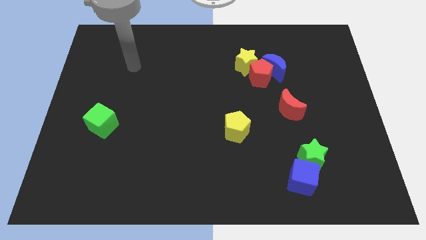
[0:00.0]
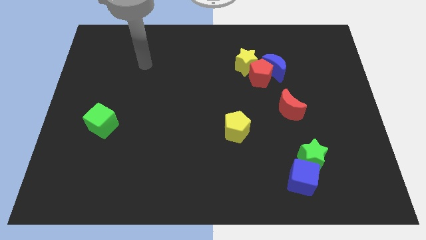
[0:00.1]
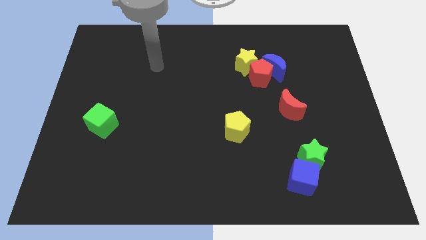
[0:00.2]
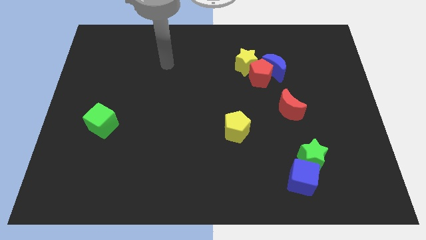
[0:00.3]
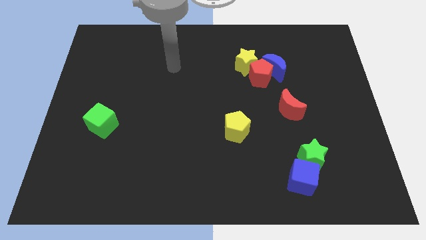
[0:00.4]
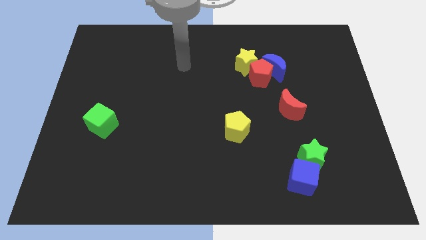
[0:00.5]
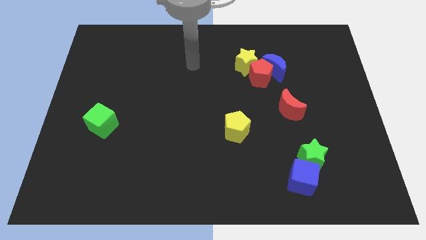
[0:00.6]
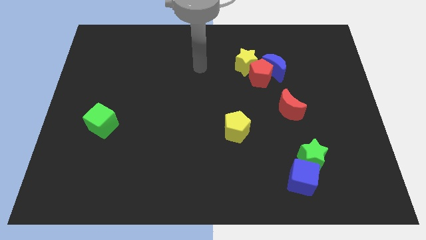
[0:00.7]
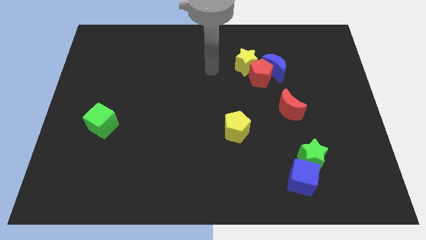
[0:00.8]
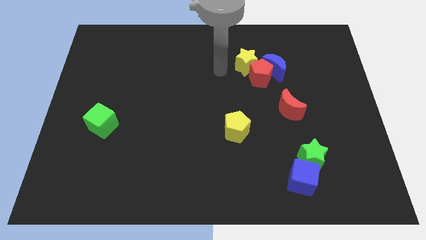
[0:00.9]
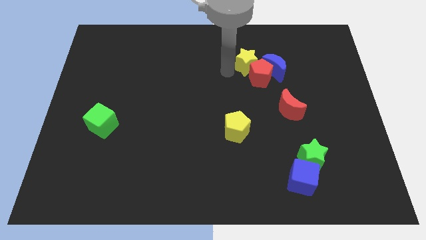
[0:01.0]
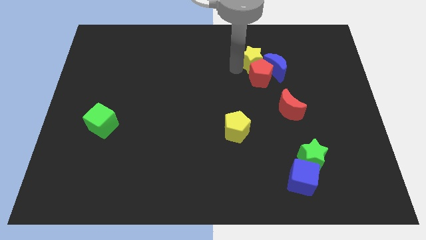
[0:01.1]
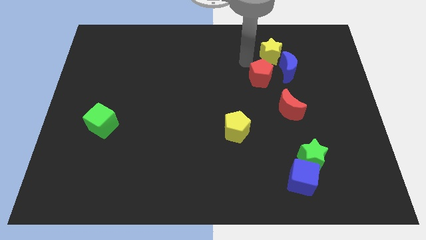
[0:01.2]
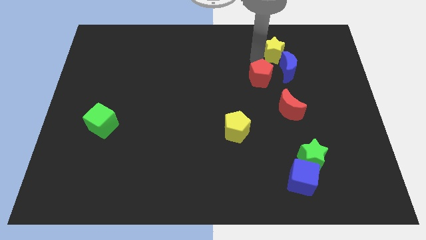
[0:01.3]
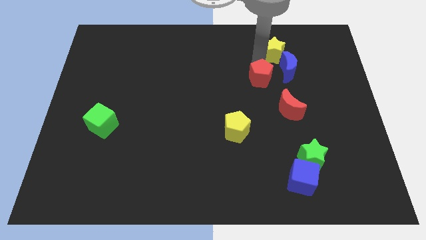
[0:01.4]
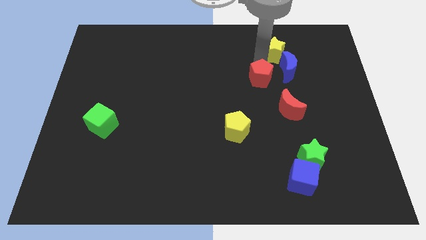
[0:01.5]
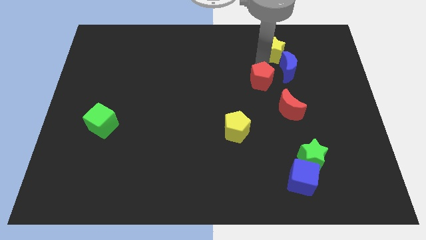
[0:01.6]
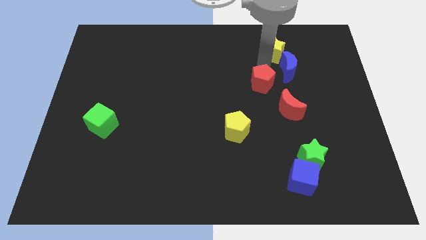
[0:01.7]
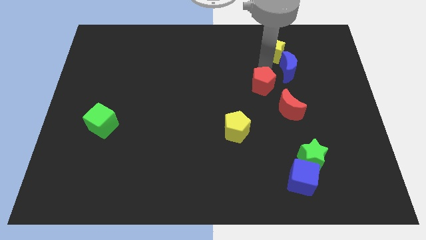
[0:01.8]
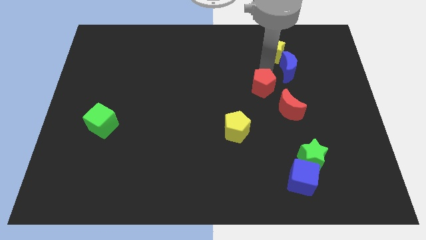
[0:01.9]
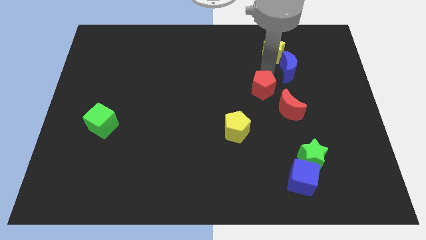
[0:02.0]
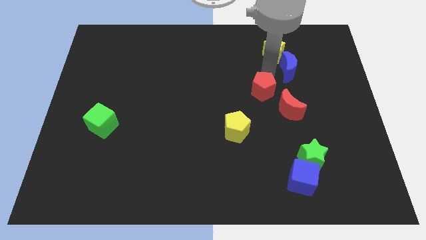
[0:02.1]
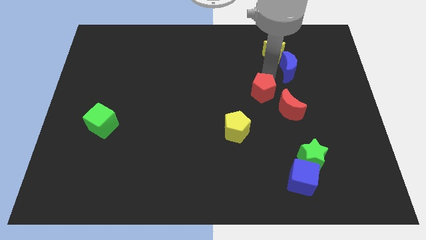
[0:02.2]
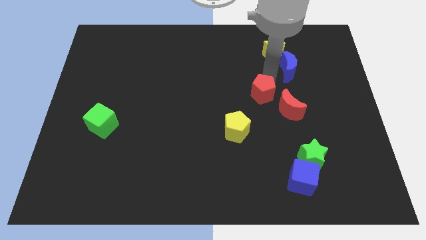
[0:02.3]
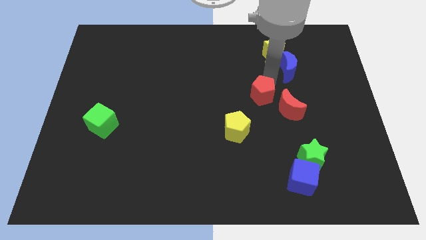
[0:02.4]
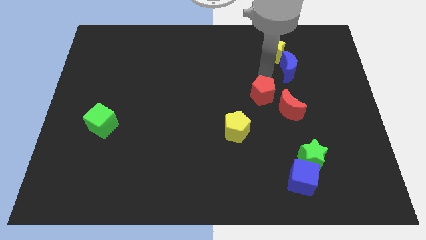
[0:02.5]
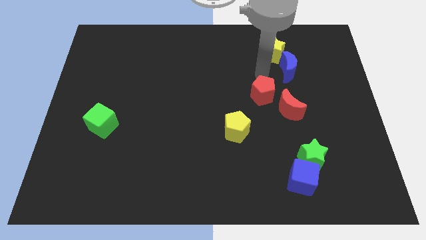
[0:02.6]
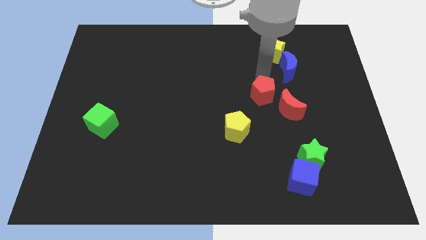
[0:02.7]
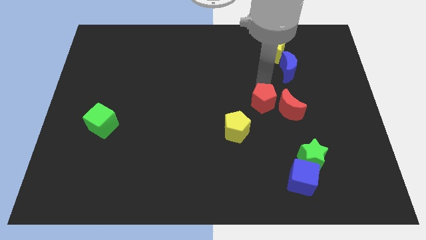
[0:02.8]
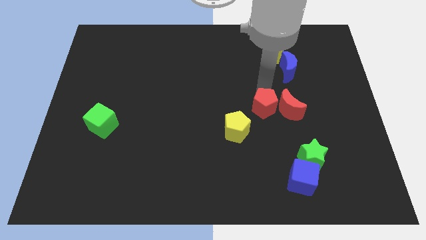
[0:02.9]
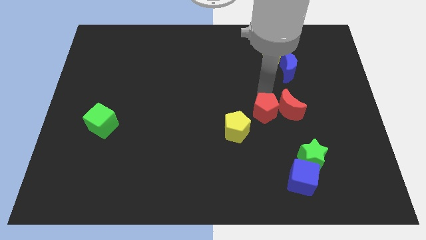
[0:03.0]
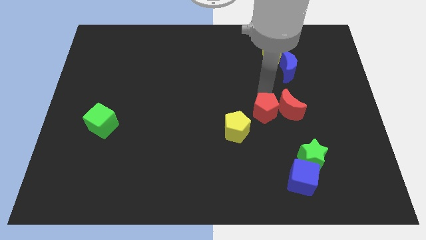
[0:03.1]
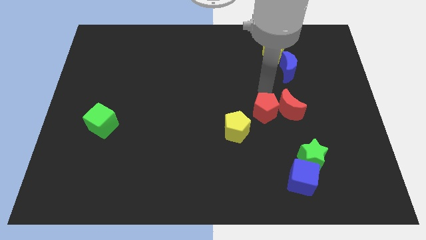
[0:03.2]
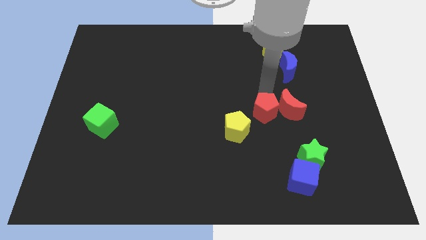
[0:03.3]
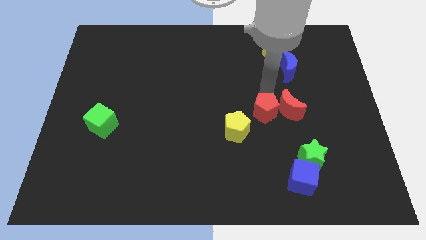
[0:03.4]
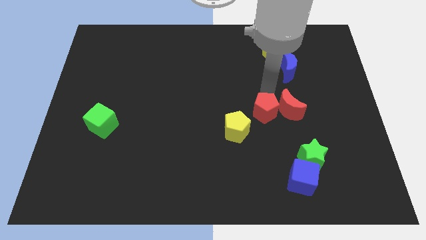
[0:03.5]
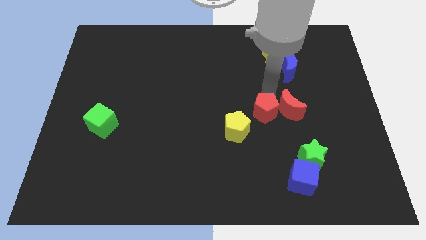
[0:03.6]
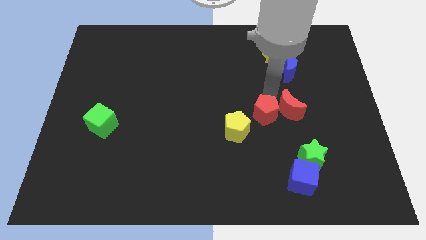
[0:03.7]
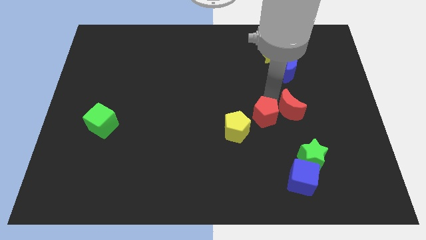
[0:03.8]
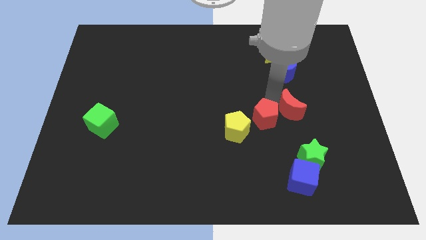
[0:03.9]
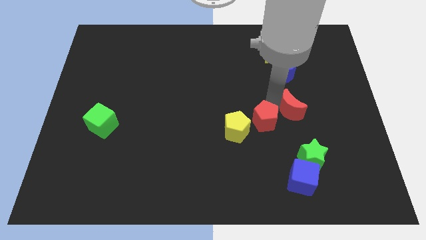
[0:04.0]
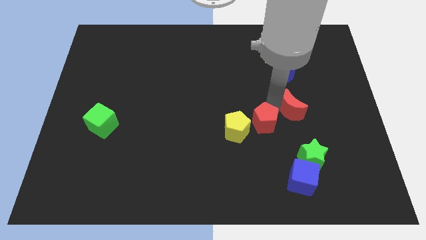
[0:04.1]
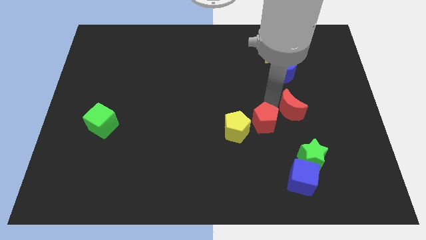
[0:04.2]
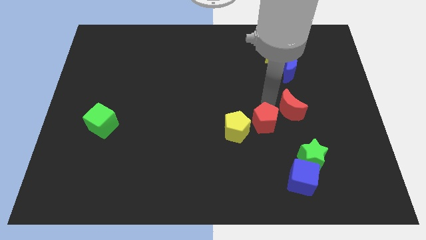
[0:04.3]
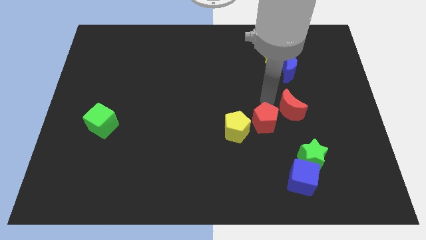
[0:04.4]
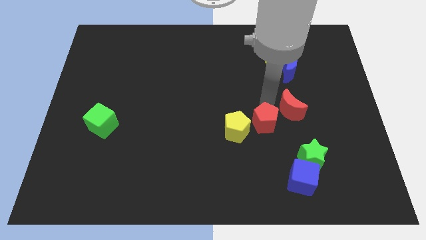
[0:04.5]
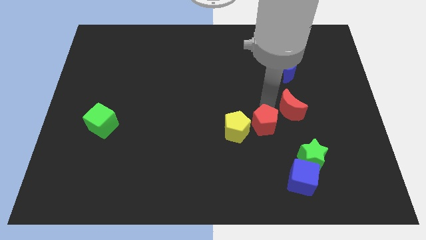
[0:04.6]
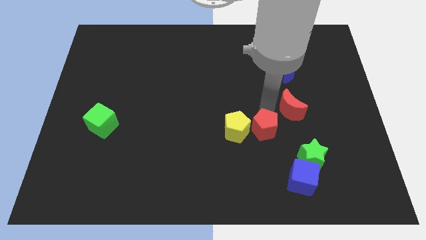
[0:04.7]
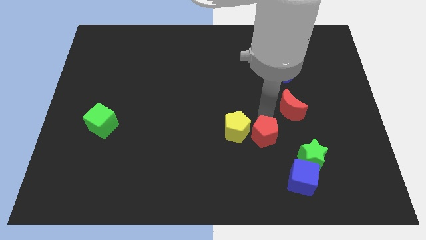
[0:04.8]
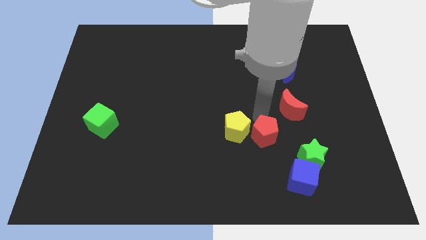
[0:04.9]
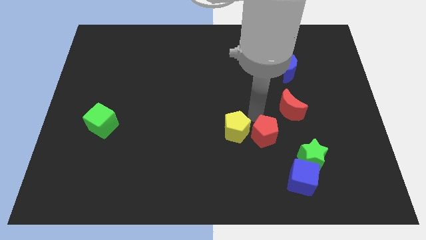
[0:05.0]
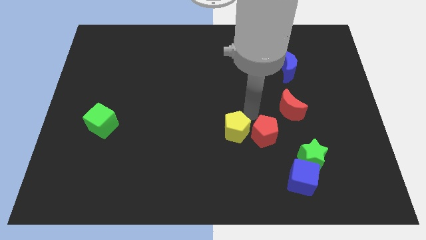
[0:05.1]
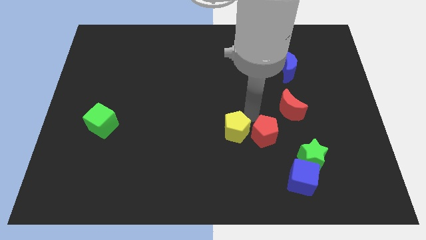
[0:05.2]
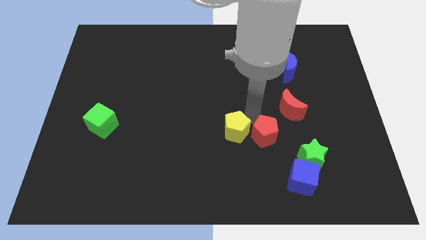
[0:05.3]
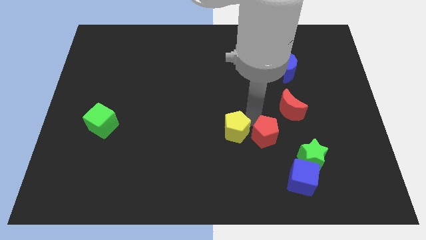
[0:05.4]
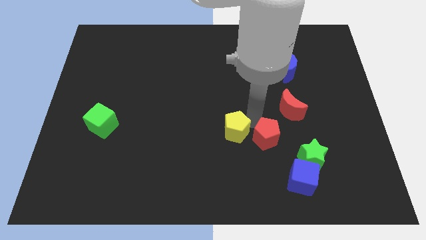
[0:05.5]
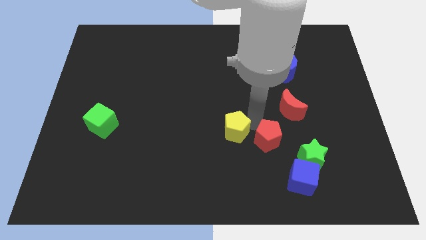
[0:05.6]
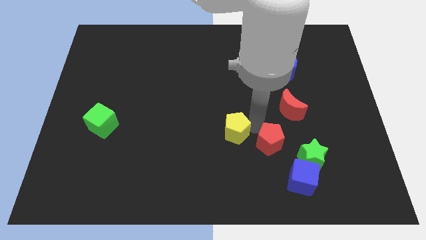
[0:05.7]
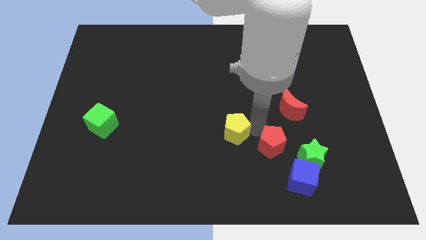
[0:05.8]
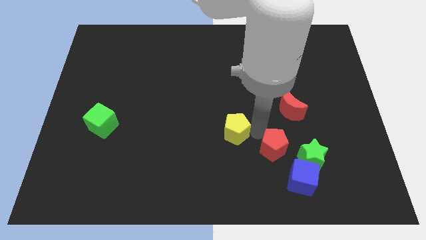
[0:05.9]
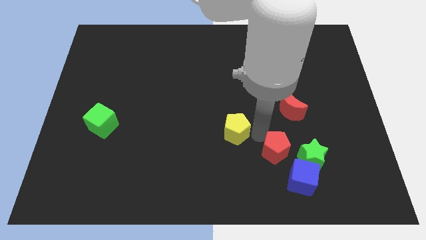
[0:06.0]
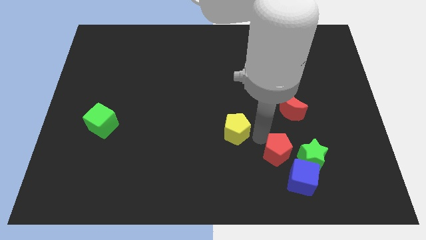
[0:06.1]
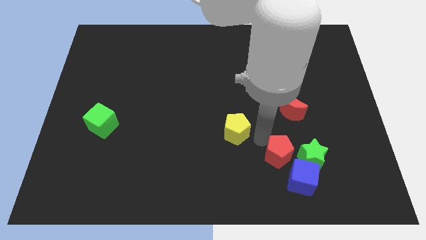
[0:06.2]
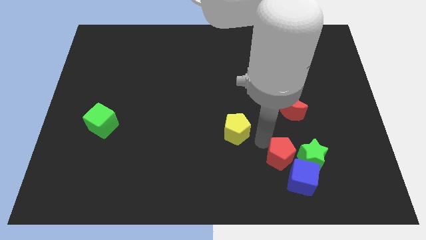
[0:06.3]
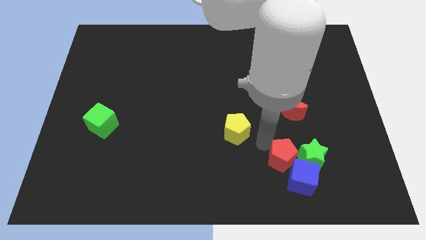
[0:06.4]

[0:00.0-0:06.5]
push the red pentagon to the blue cube
